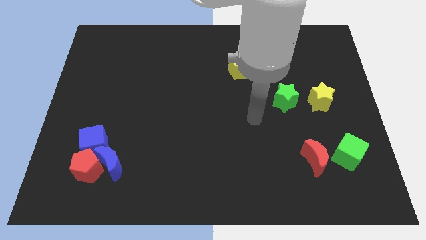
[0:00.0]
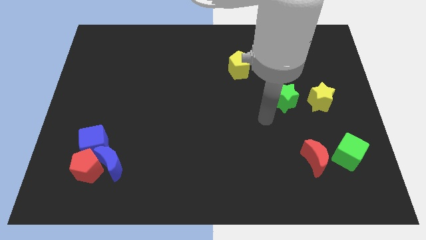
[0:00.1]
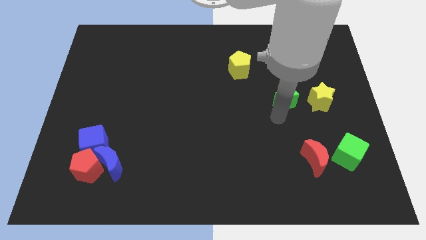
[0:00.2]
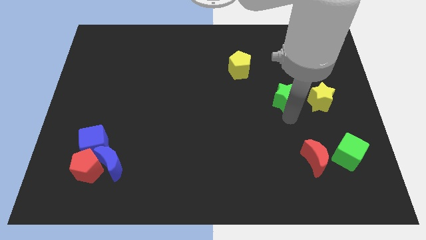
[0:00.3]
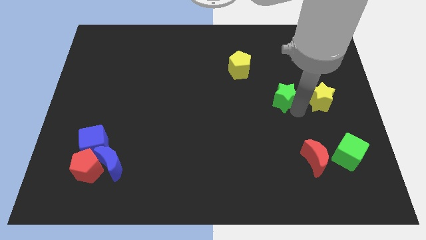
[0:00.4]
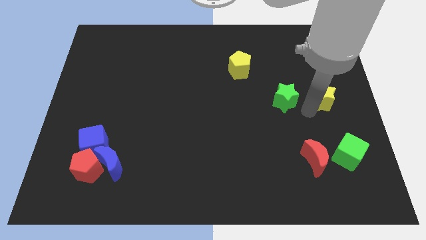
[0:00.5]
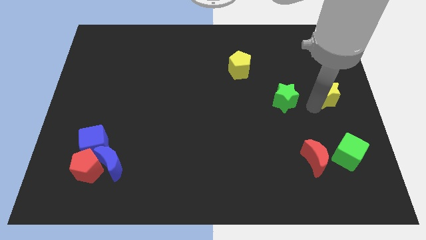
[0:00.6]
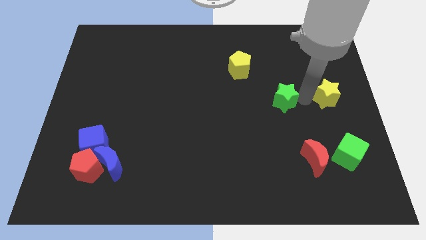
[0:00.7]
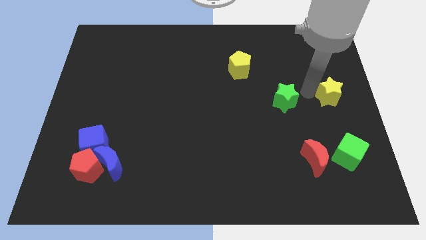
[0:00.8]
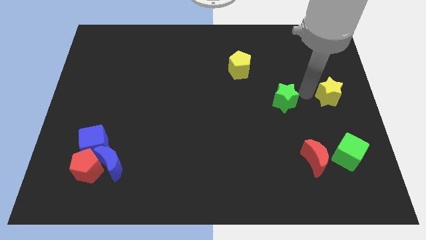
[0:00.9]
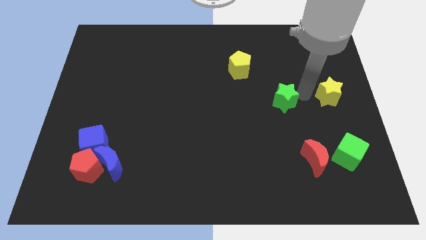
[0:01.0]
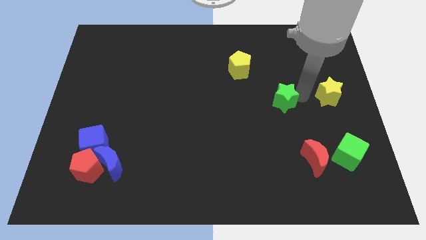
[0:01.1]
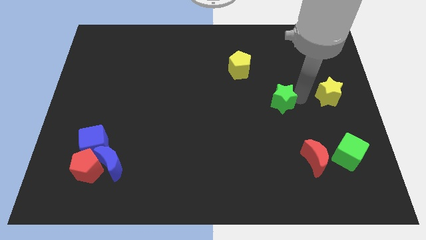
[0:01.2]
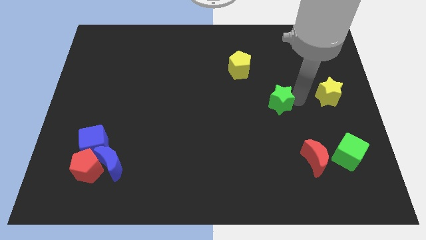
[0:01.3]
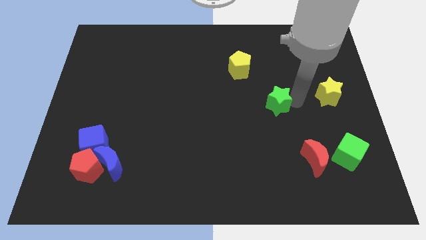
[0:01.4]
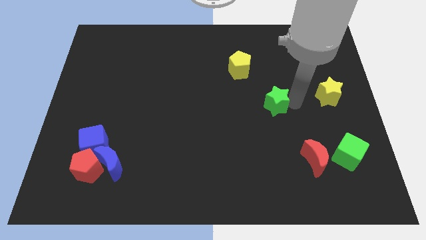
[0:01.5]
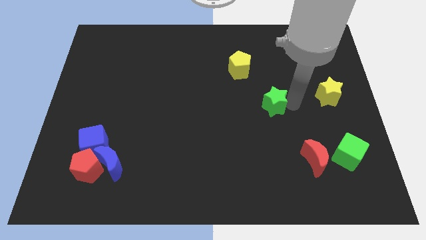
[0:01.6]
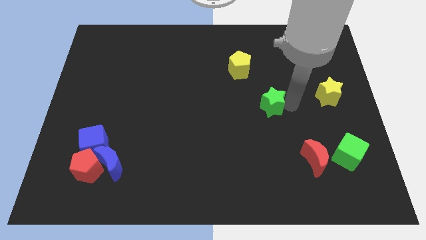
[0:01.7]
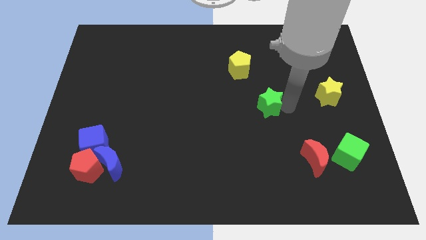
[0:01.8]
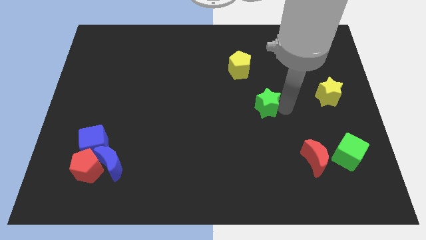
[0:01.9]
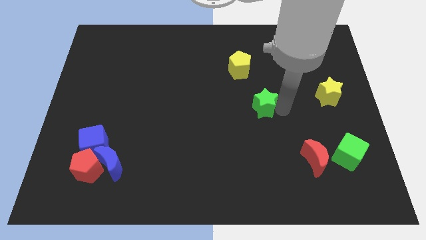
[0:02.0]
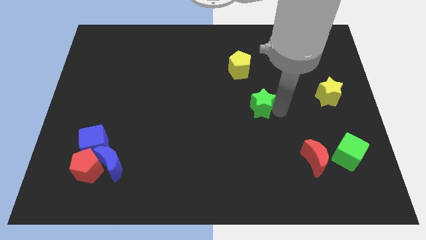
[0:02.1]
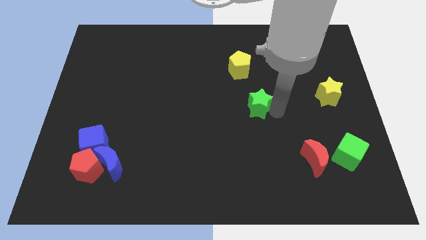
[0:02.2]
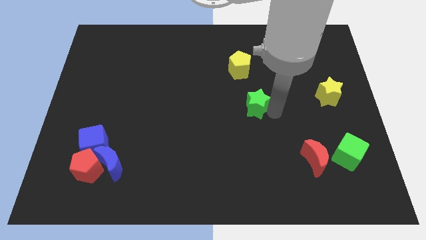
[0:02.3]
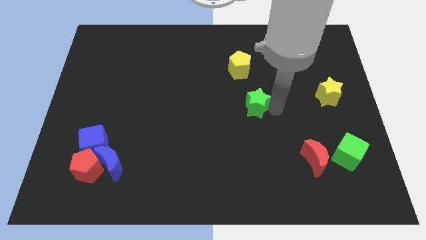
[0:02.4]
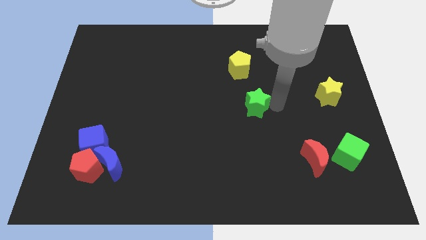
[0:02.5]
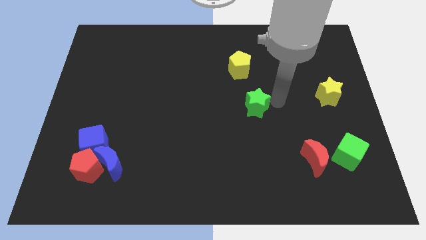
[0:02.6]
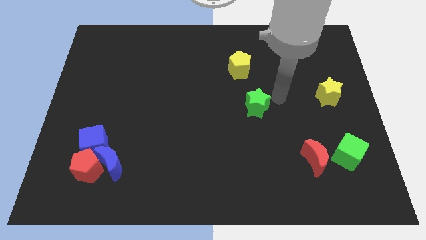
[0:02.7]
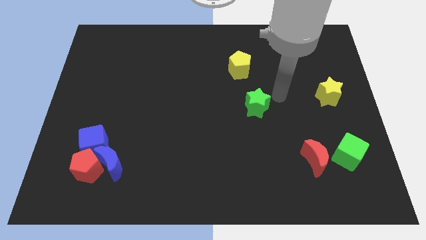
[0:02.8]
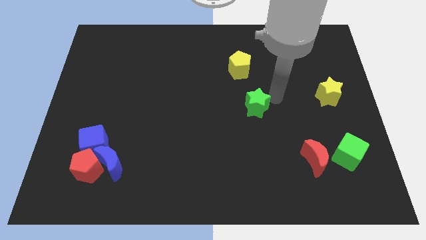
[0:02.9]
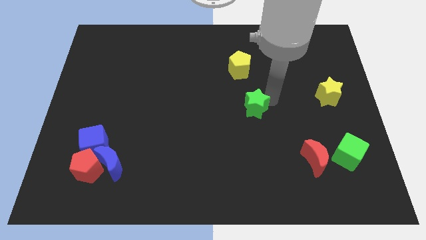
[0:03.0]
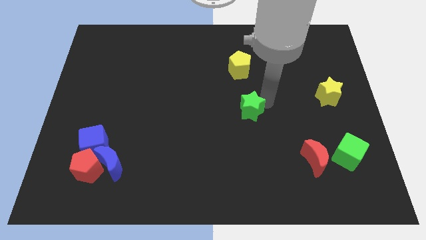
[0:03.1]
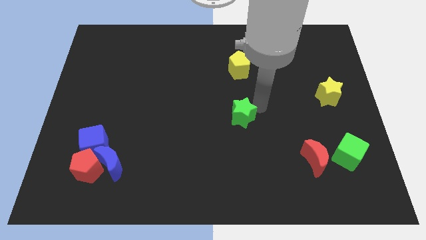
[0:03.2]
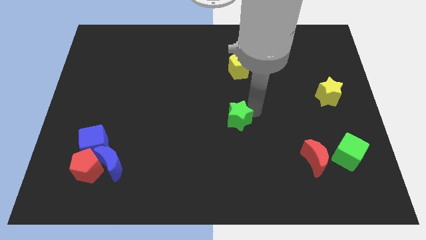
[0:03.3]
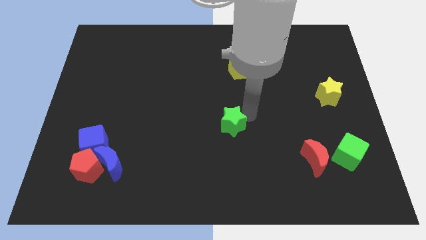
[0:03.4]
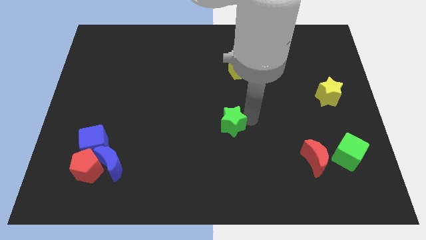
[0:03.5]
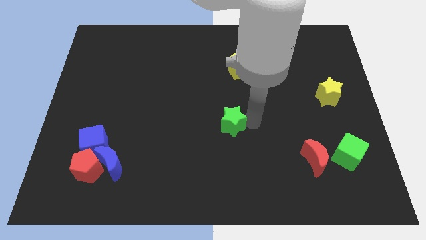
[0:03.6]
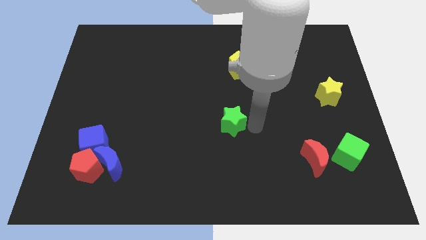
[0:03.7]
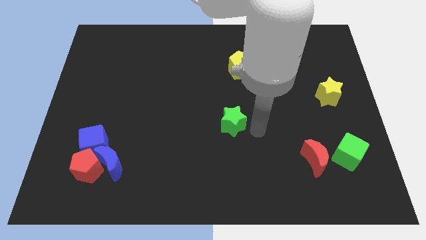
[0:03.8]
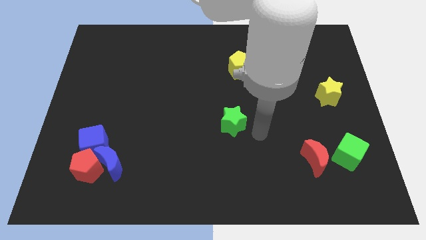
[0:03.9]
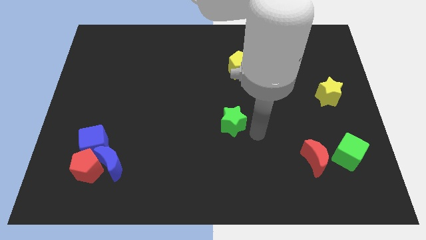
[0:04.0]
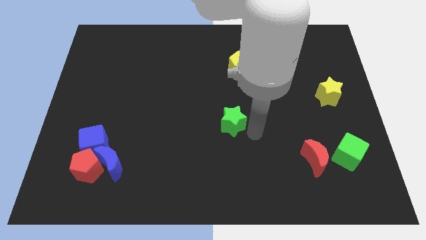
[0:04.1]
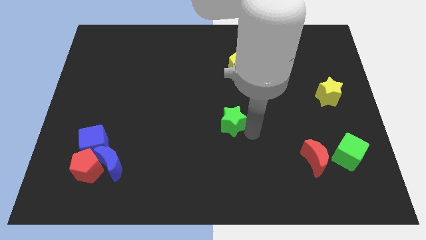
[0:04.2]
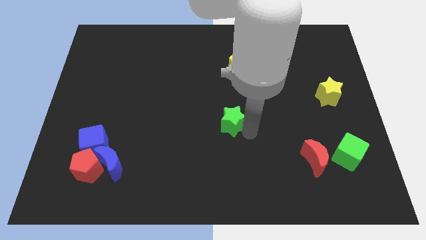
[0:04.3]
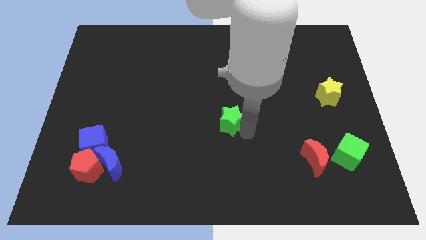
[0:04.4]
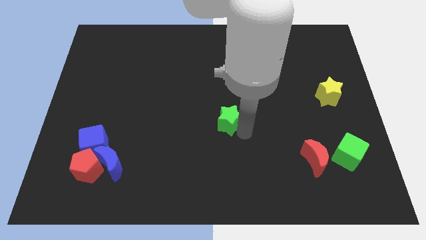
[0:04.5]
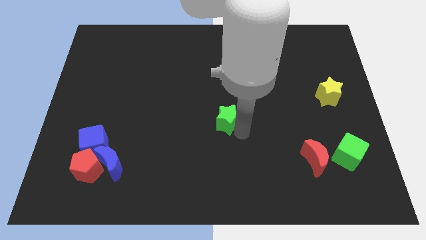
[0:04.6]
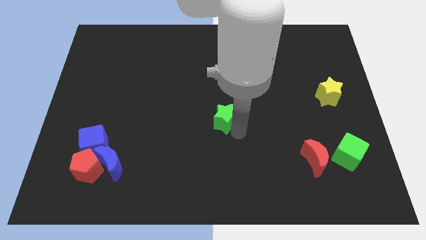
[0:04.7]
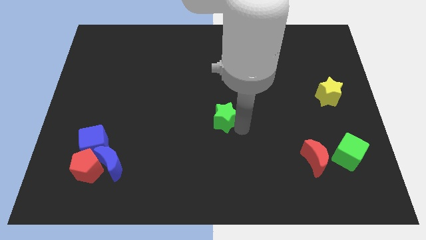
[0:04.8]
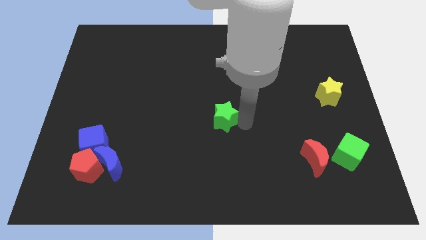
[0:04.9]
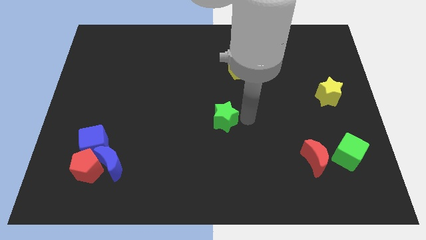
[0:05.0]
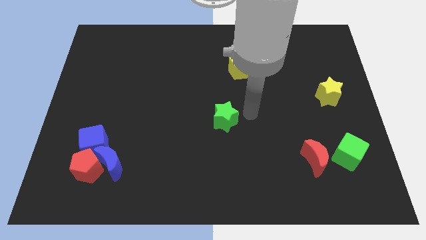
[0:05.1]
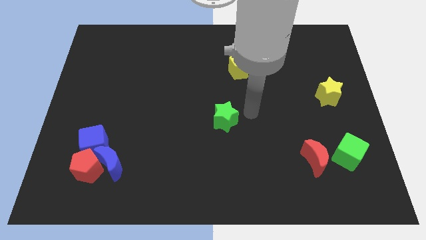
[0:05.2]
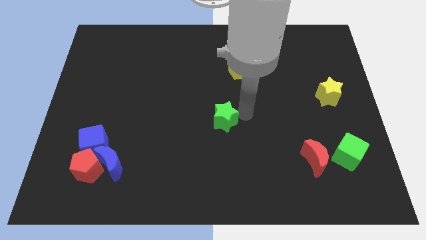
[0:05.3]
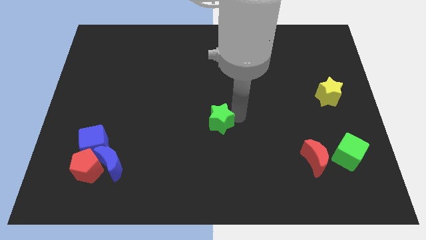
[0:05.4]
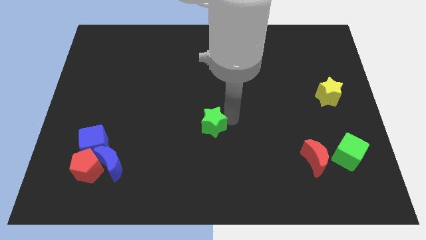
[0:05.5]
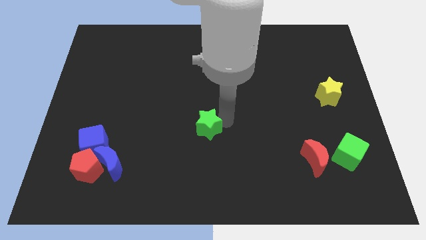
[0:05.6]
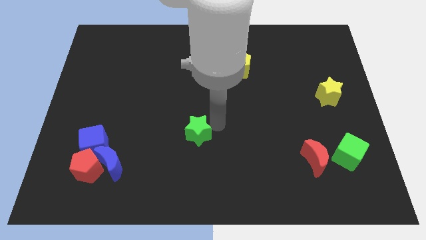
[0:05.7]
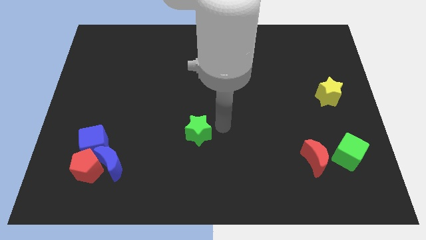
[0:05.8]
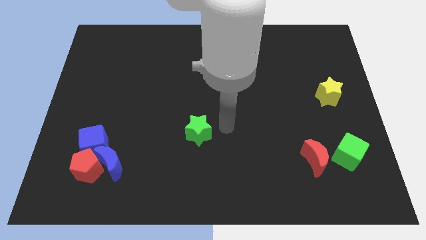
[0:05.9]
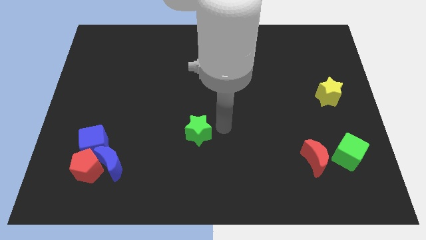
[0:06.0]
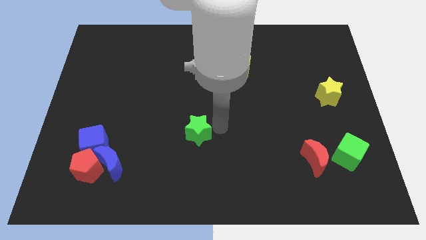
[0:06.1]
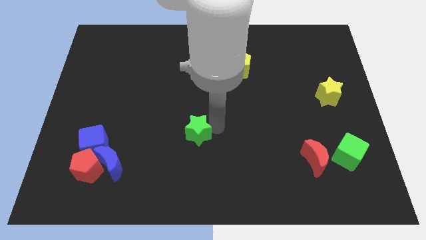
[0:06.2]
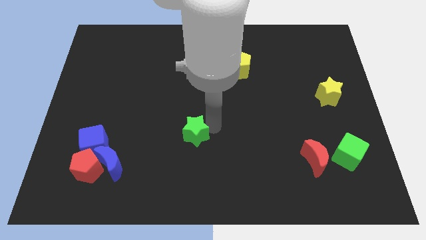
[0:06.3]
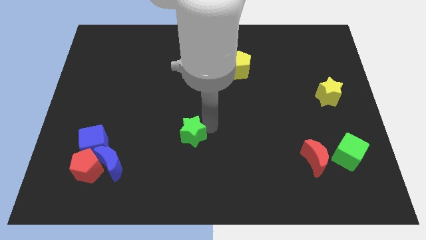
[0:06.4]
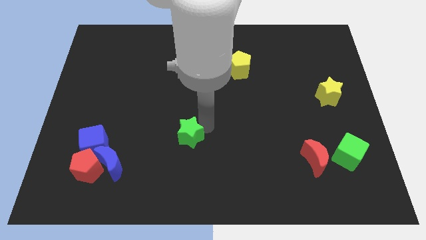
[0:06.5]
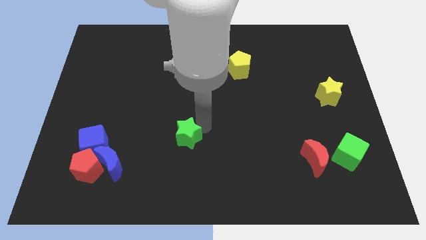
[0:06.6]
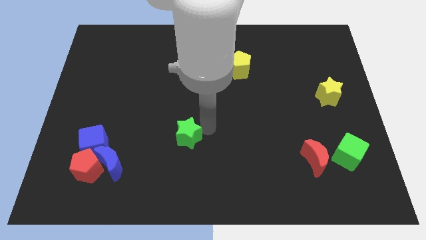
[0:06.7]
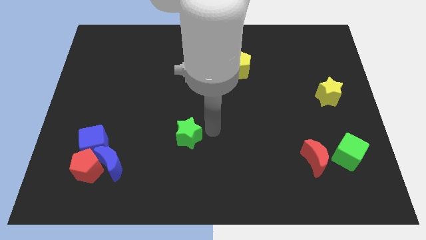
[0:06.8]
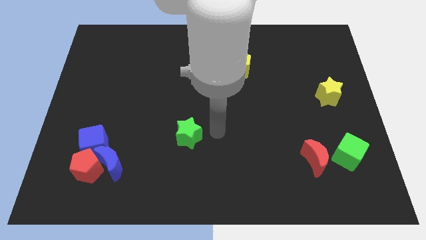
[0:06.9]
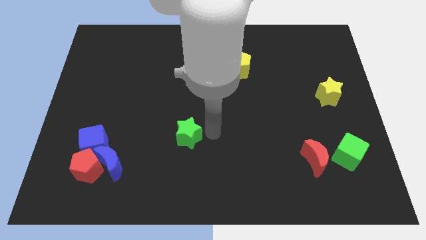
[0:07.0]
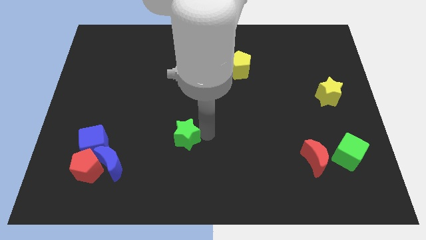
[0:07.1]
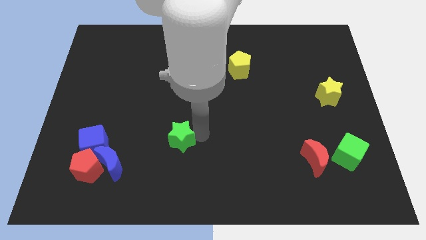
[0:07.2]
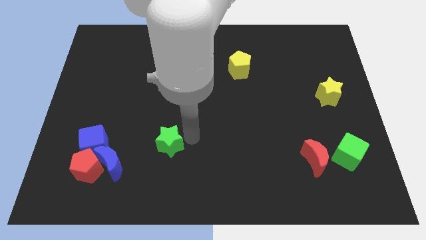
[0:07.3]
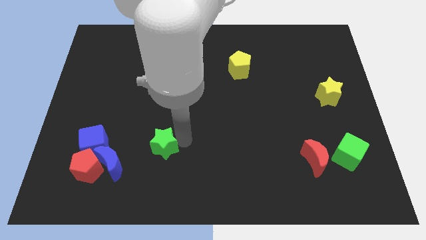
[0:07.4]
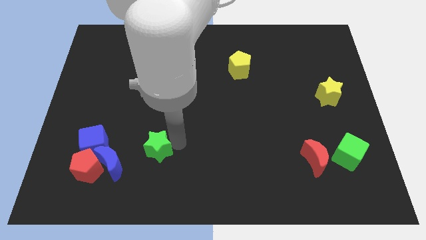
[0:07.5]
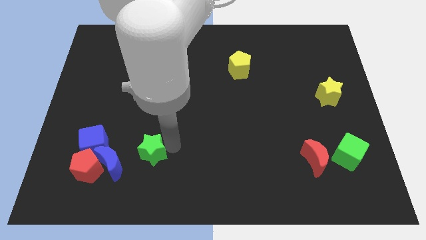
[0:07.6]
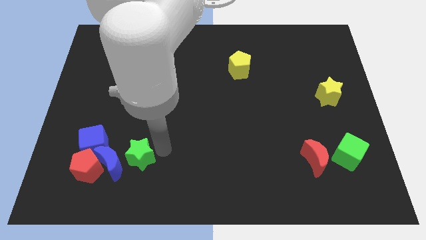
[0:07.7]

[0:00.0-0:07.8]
put the green star next to the blue moon
